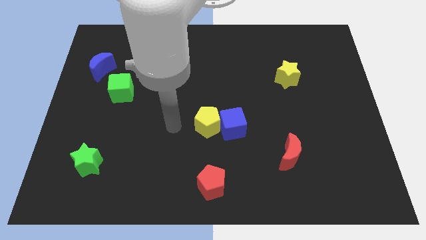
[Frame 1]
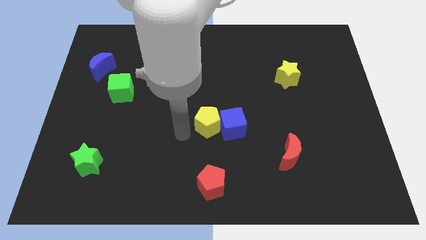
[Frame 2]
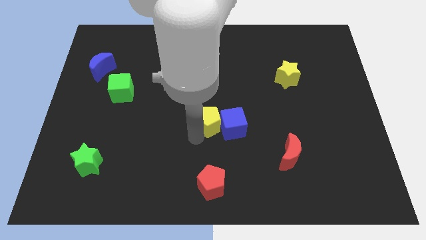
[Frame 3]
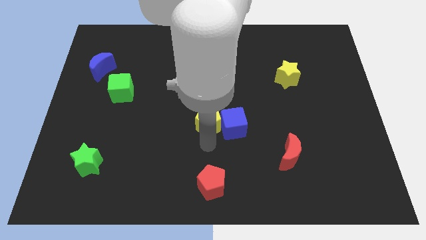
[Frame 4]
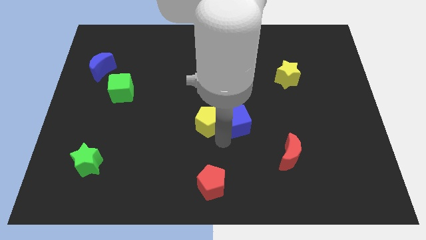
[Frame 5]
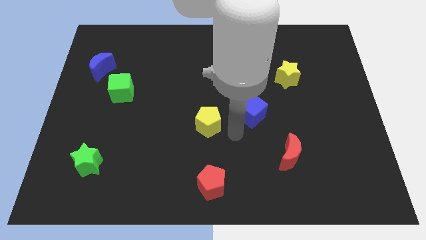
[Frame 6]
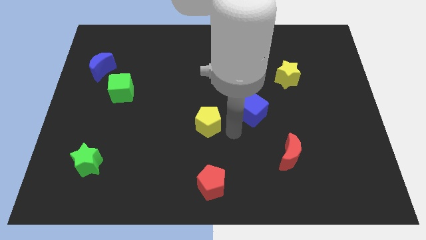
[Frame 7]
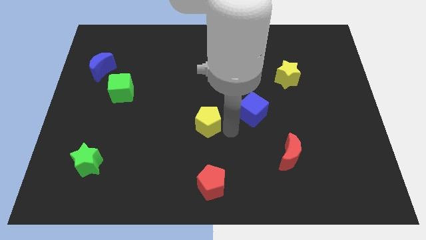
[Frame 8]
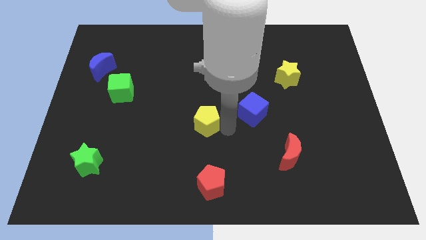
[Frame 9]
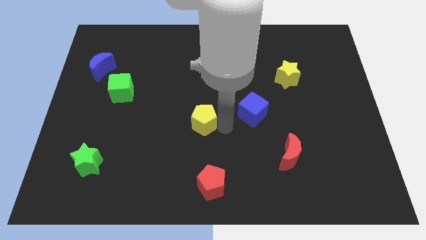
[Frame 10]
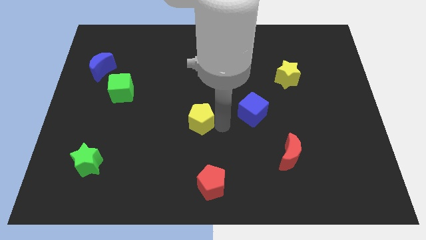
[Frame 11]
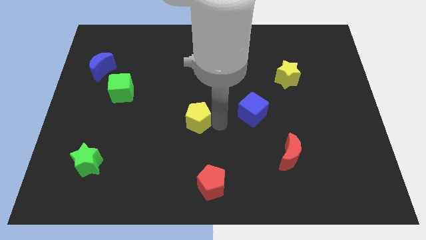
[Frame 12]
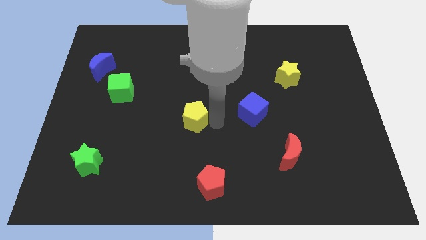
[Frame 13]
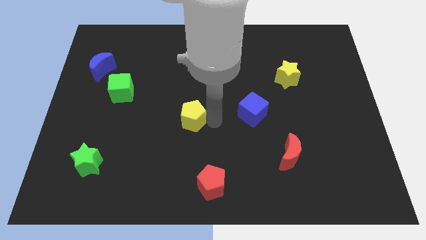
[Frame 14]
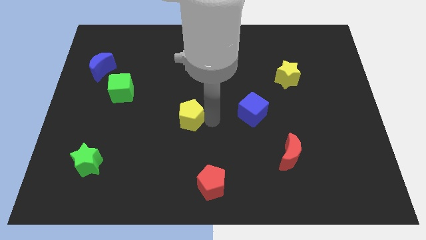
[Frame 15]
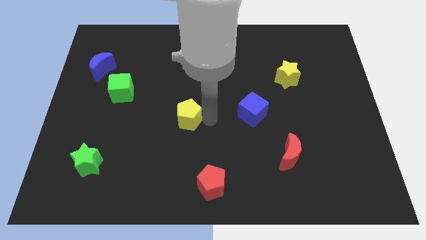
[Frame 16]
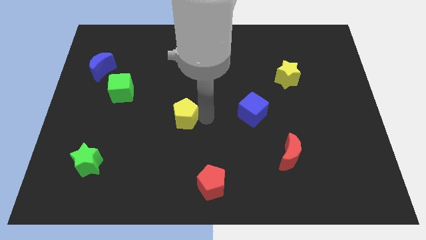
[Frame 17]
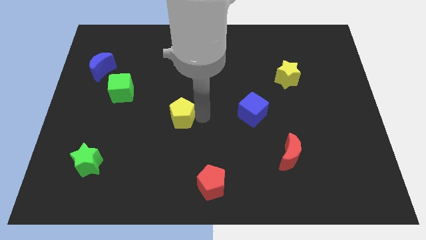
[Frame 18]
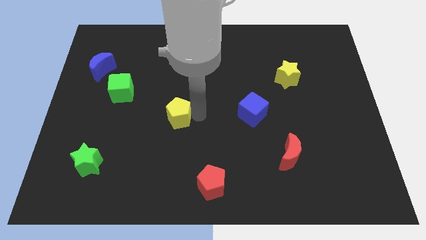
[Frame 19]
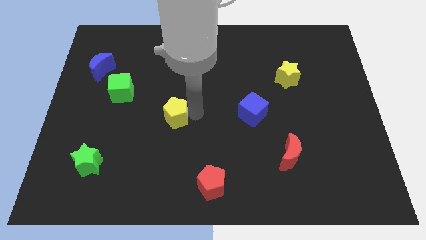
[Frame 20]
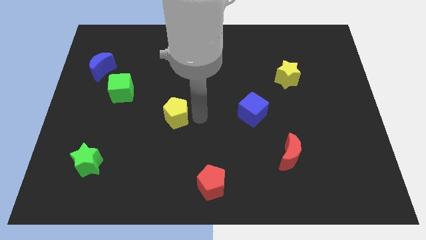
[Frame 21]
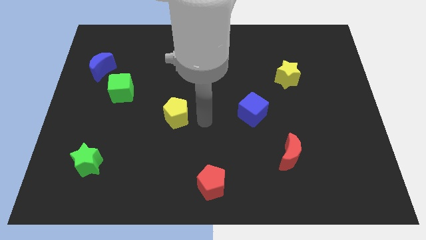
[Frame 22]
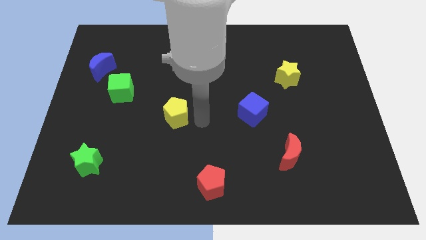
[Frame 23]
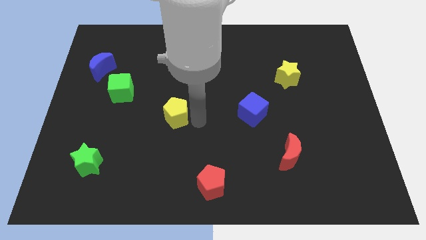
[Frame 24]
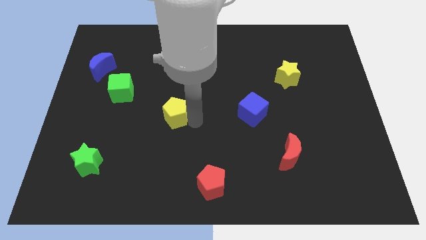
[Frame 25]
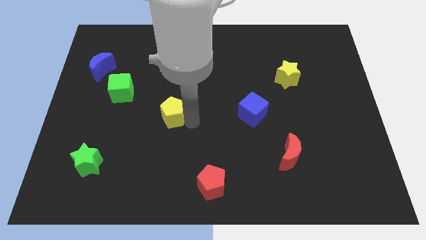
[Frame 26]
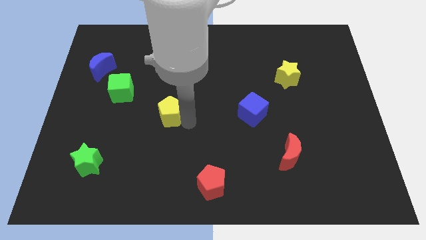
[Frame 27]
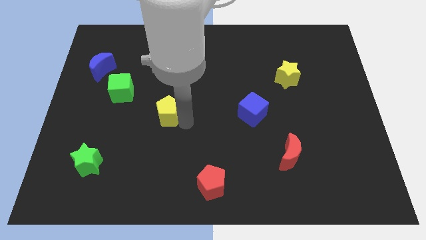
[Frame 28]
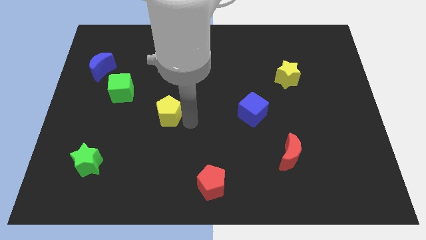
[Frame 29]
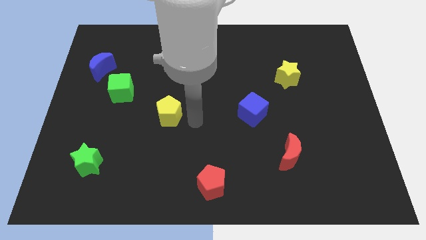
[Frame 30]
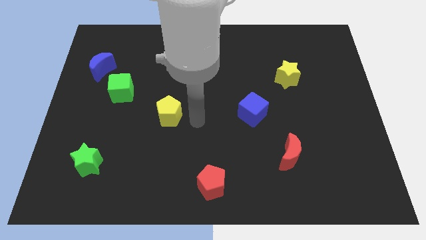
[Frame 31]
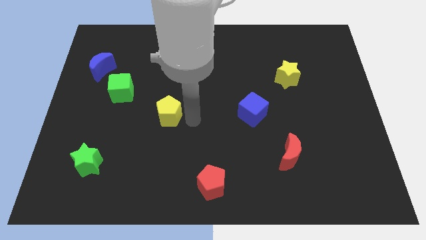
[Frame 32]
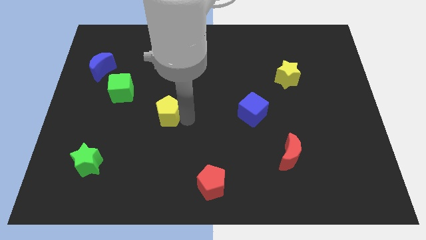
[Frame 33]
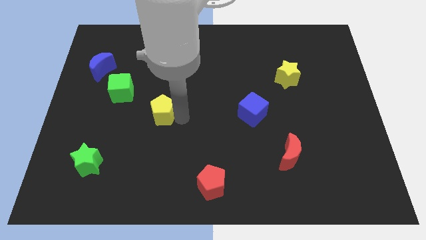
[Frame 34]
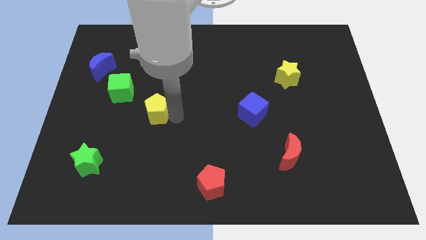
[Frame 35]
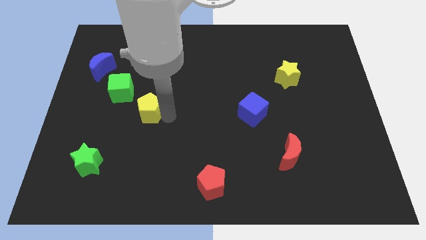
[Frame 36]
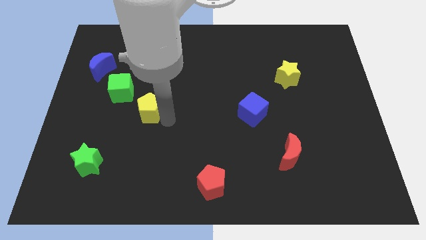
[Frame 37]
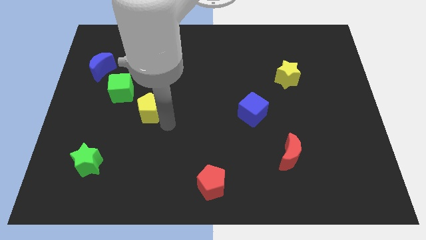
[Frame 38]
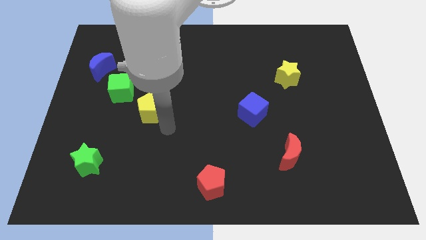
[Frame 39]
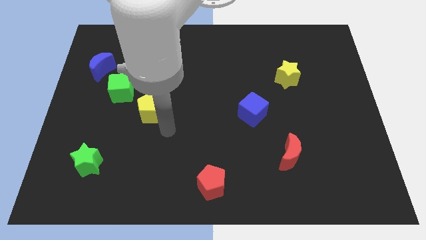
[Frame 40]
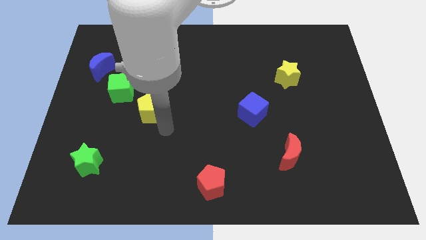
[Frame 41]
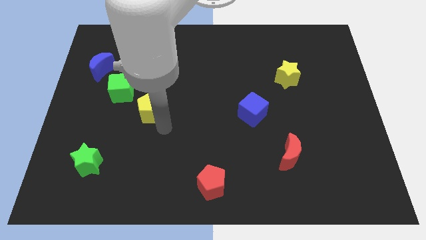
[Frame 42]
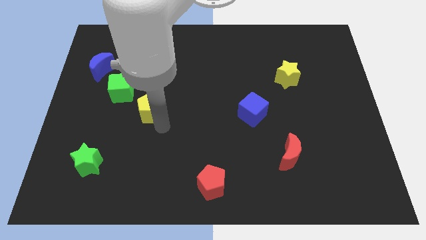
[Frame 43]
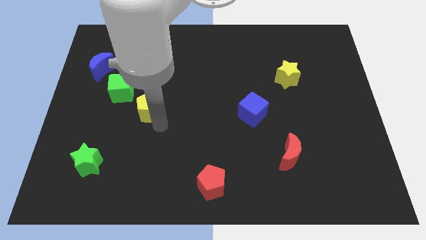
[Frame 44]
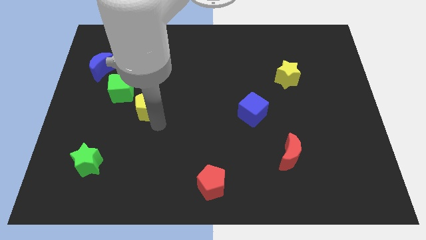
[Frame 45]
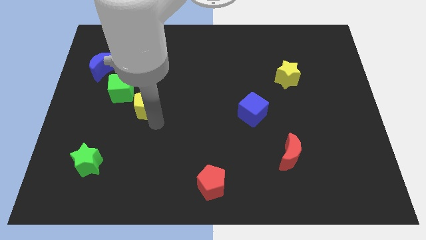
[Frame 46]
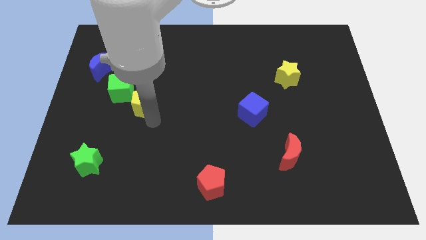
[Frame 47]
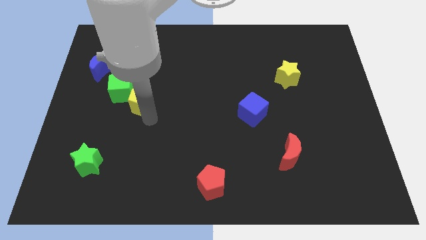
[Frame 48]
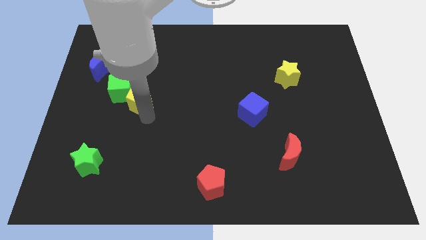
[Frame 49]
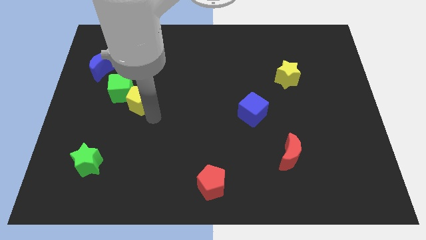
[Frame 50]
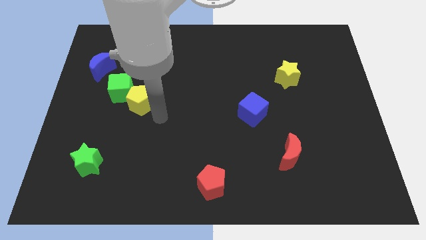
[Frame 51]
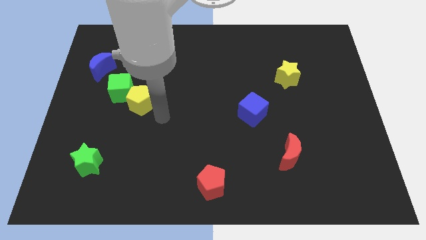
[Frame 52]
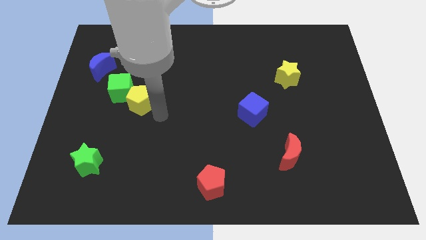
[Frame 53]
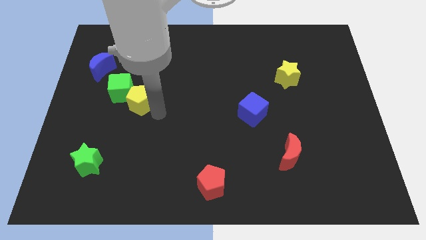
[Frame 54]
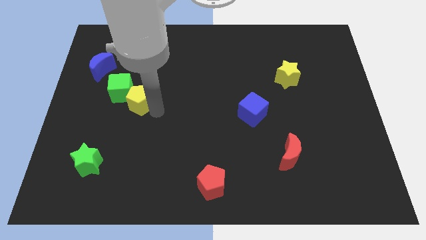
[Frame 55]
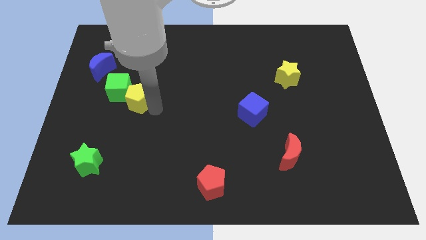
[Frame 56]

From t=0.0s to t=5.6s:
move the yellow pentagon next to the green cube
